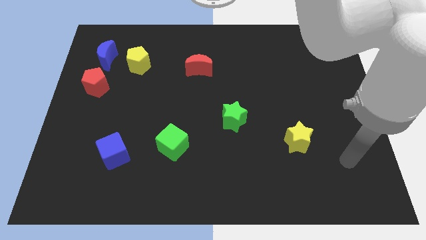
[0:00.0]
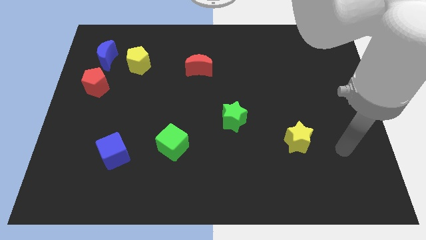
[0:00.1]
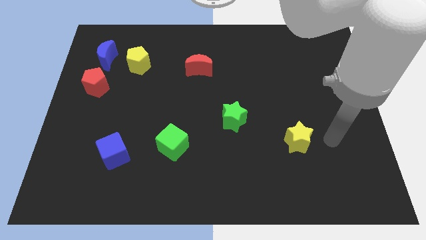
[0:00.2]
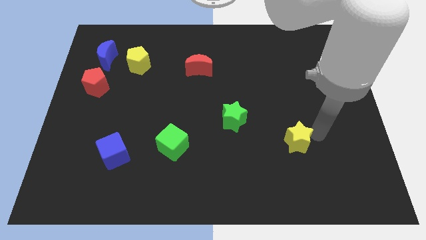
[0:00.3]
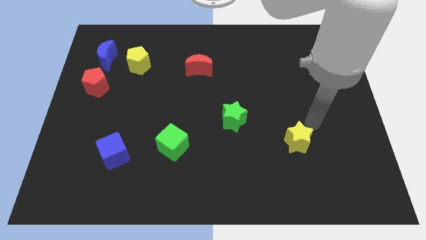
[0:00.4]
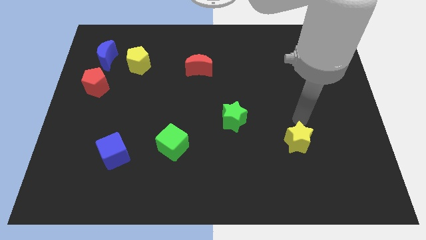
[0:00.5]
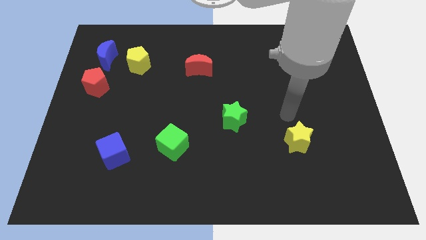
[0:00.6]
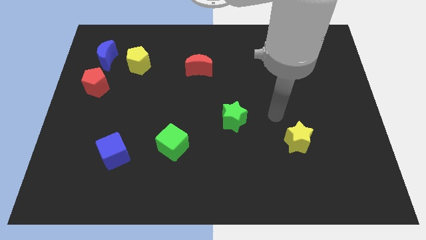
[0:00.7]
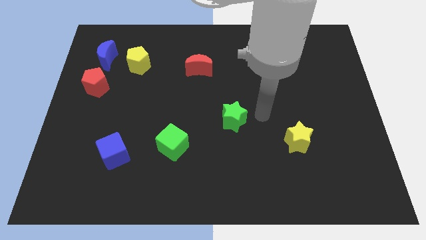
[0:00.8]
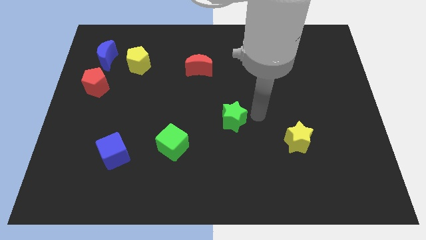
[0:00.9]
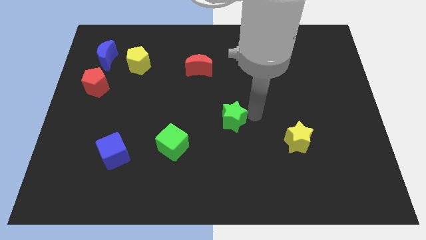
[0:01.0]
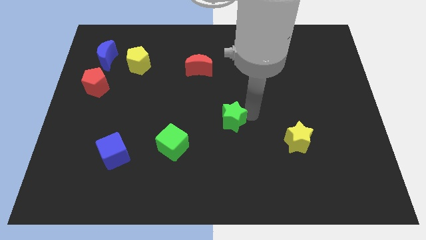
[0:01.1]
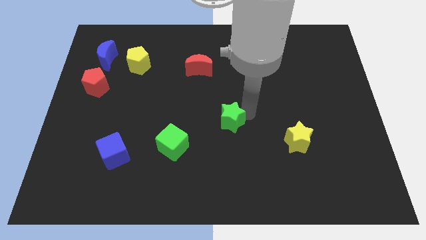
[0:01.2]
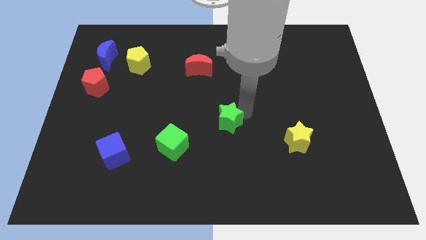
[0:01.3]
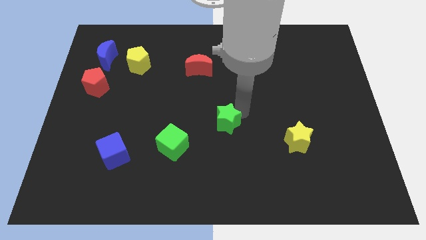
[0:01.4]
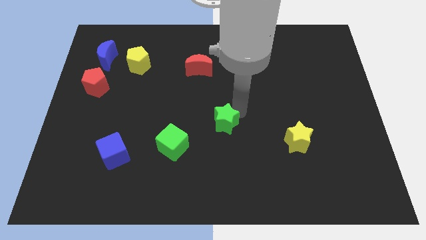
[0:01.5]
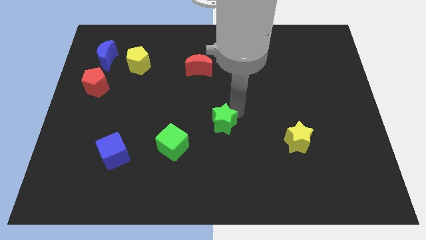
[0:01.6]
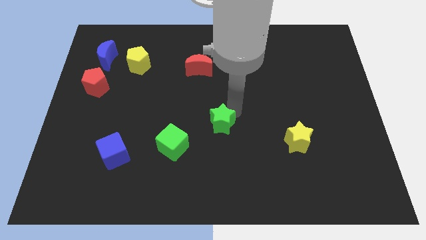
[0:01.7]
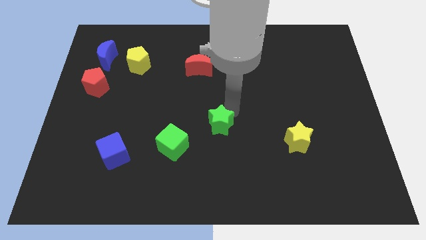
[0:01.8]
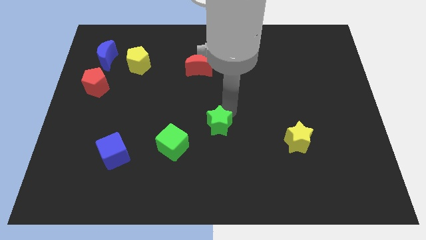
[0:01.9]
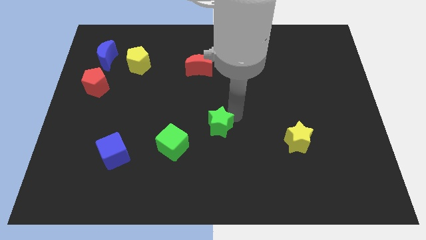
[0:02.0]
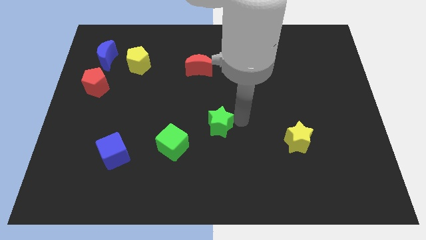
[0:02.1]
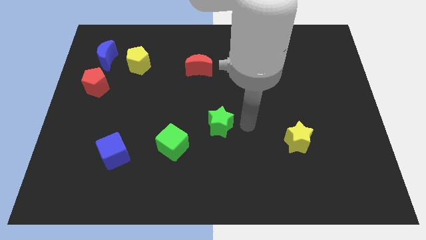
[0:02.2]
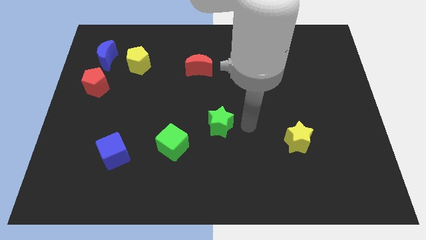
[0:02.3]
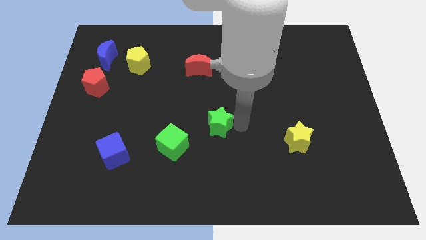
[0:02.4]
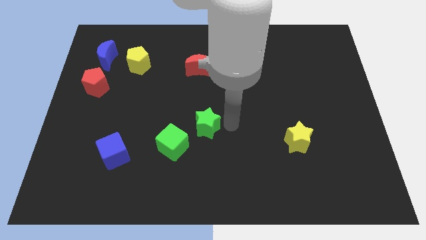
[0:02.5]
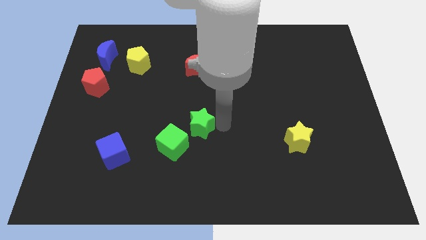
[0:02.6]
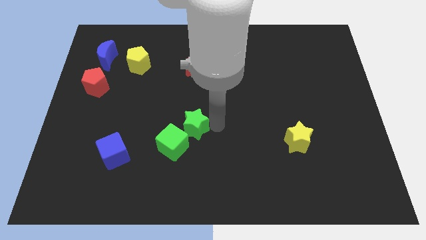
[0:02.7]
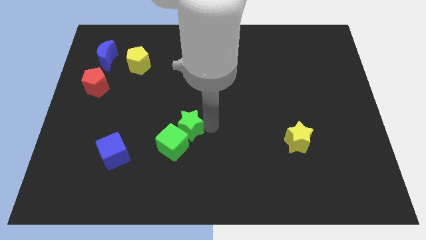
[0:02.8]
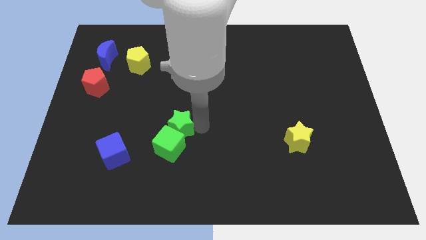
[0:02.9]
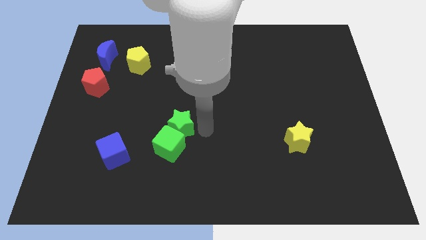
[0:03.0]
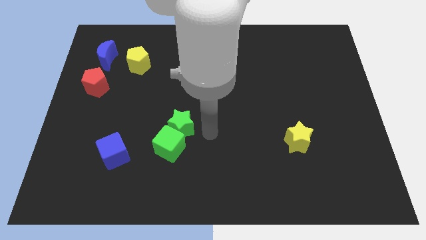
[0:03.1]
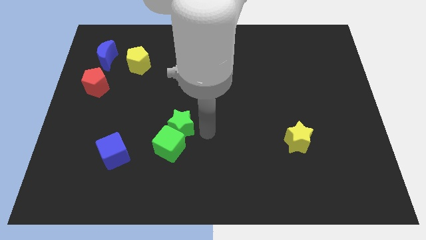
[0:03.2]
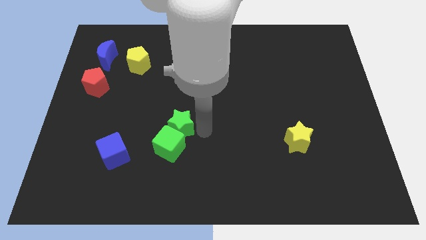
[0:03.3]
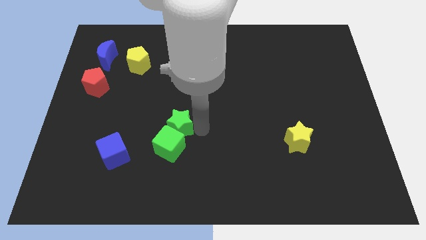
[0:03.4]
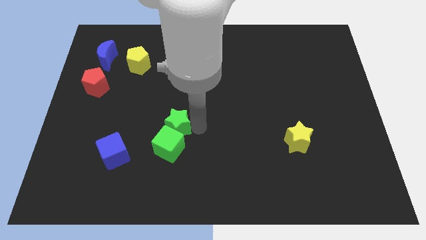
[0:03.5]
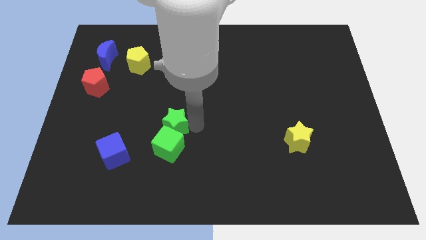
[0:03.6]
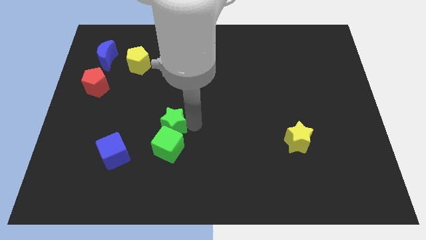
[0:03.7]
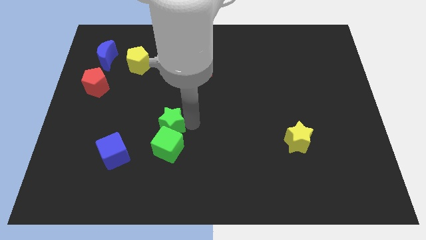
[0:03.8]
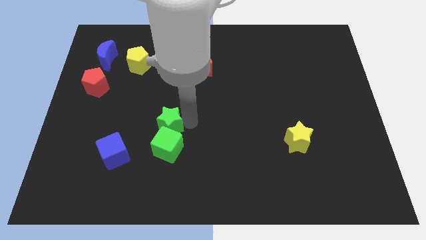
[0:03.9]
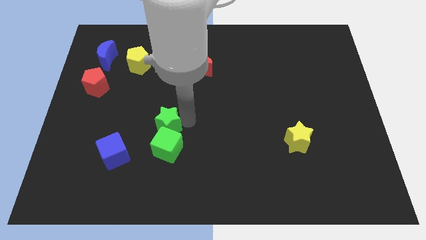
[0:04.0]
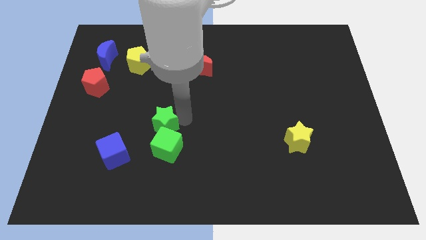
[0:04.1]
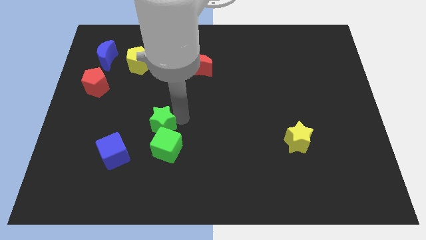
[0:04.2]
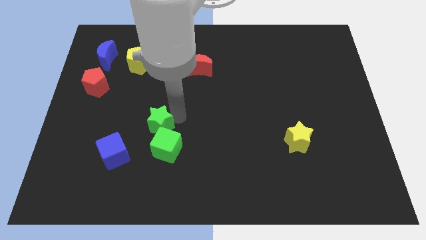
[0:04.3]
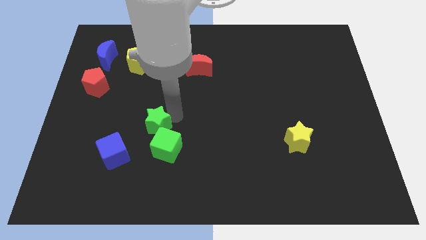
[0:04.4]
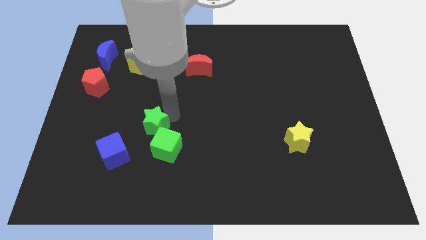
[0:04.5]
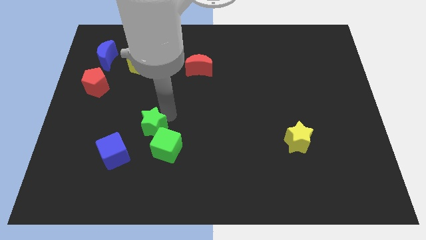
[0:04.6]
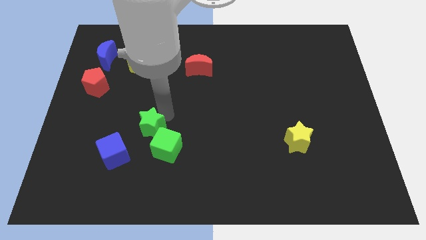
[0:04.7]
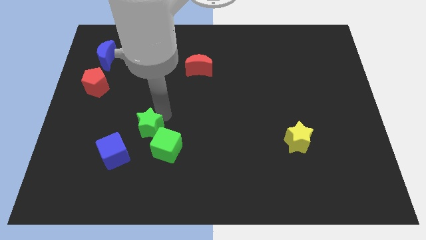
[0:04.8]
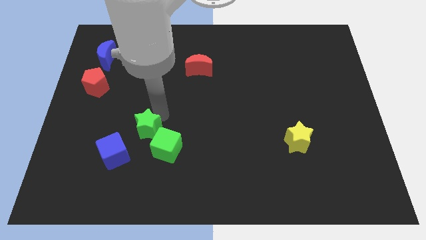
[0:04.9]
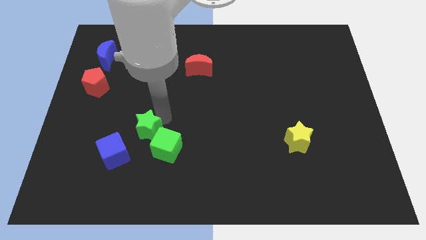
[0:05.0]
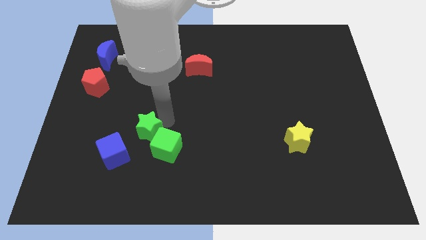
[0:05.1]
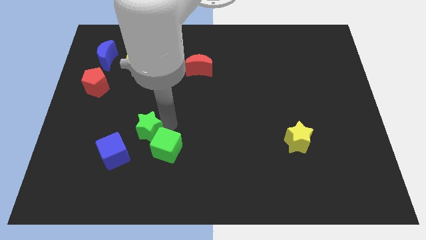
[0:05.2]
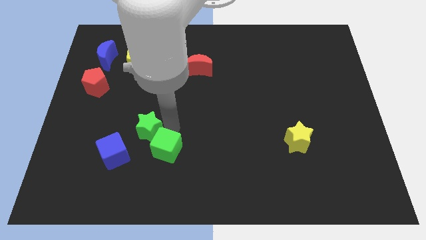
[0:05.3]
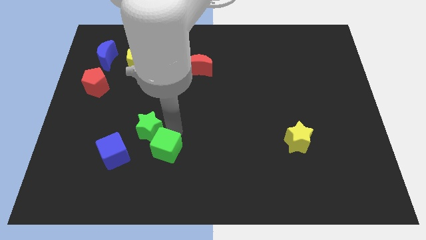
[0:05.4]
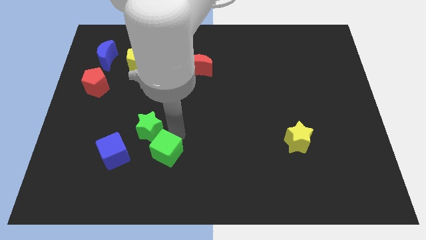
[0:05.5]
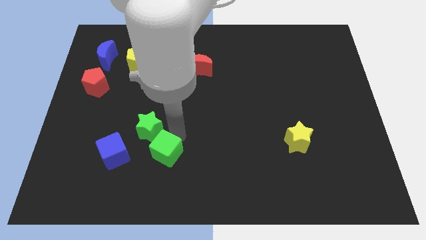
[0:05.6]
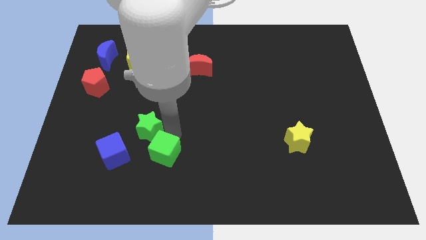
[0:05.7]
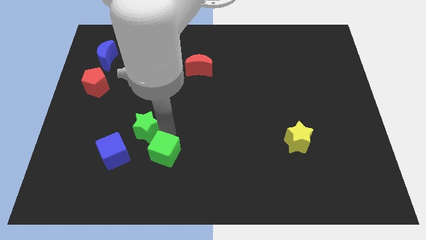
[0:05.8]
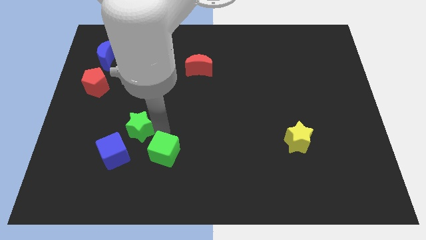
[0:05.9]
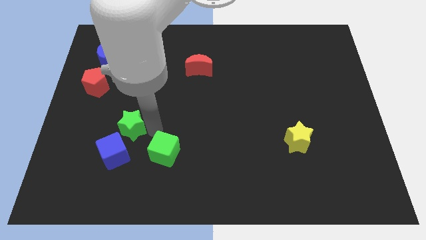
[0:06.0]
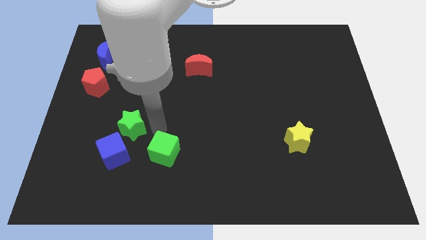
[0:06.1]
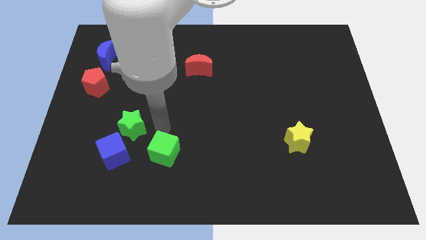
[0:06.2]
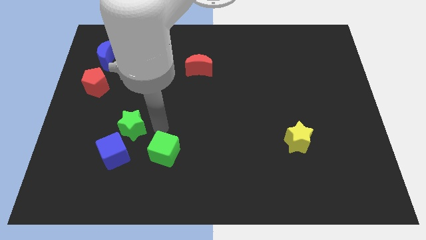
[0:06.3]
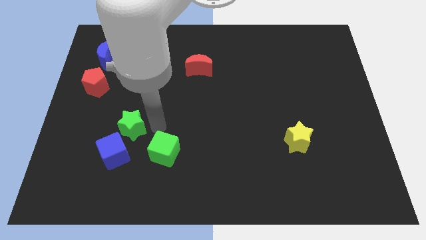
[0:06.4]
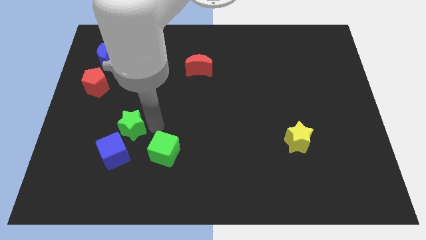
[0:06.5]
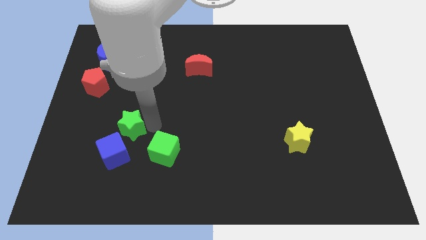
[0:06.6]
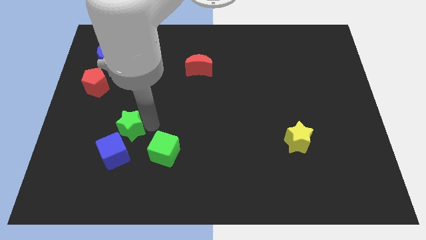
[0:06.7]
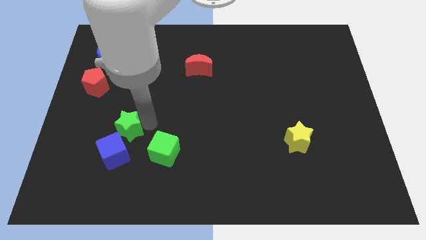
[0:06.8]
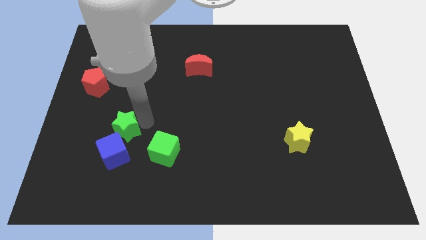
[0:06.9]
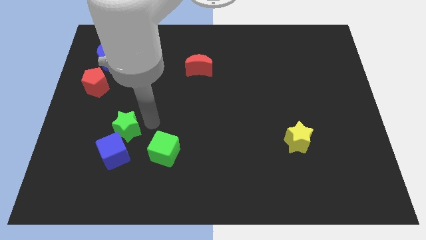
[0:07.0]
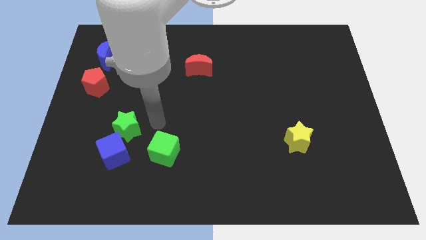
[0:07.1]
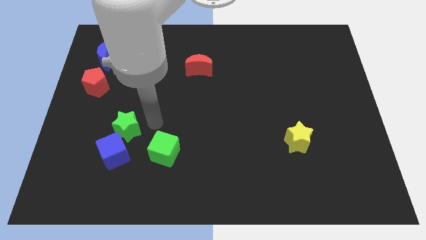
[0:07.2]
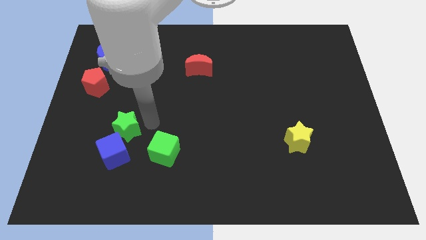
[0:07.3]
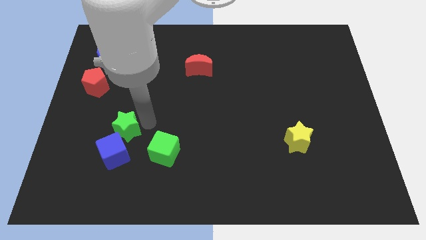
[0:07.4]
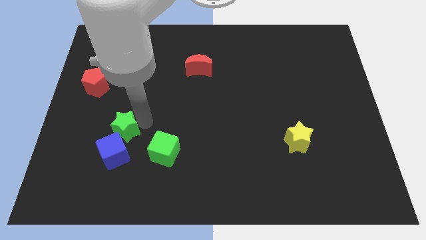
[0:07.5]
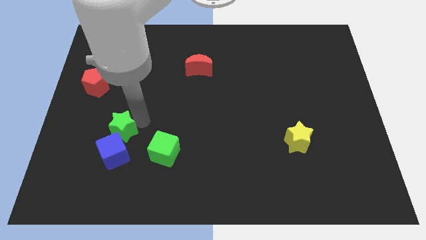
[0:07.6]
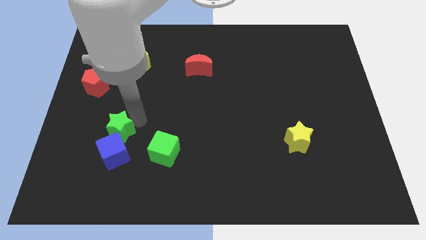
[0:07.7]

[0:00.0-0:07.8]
slide the green star to the top left side of the blue cube
